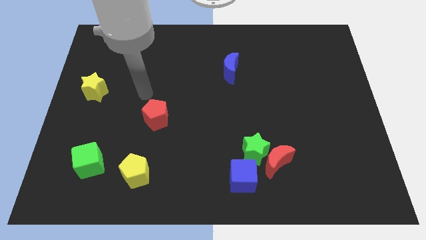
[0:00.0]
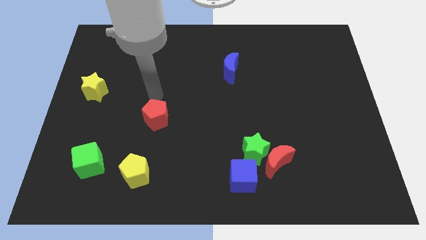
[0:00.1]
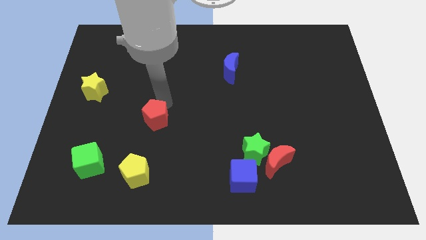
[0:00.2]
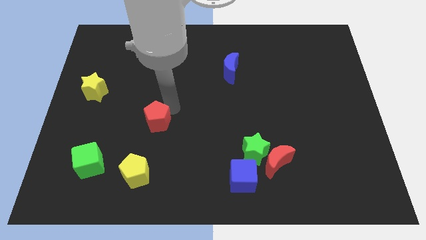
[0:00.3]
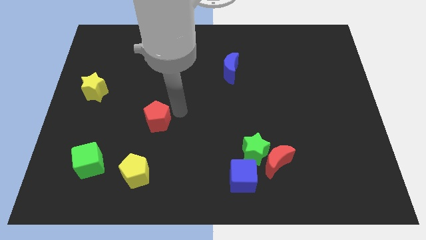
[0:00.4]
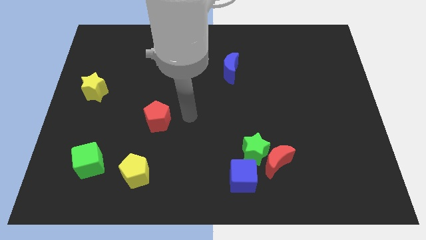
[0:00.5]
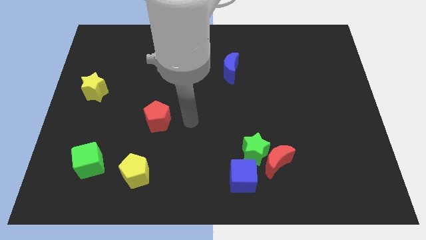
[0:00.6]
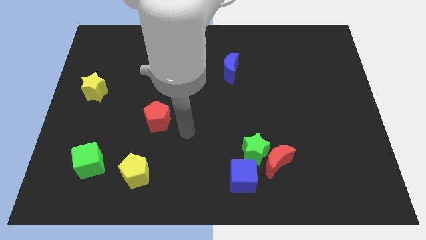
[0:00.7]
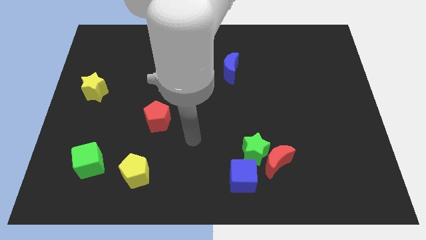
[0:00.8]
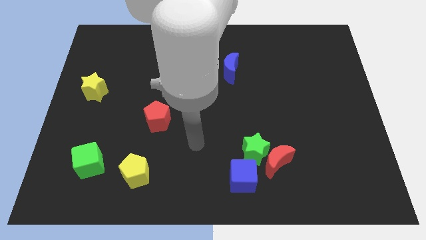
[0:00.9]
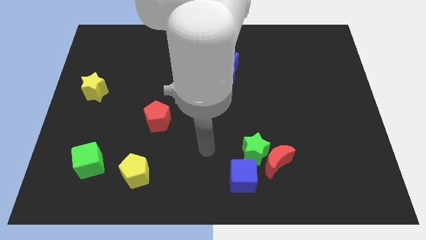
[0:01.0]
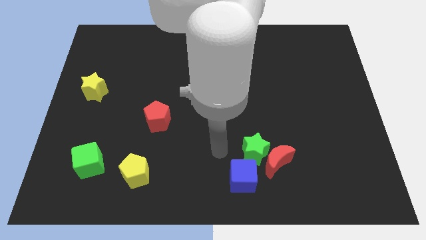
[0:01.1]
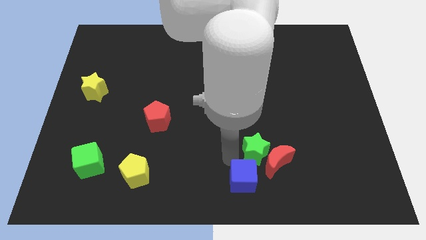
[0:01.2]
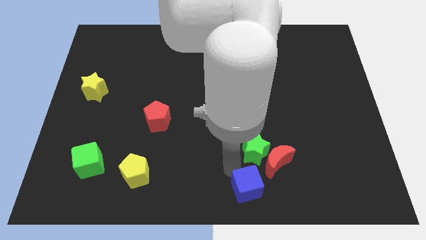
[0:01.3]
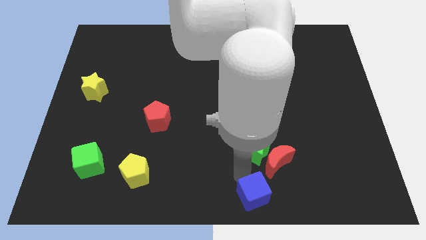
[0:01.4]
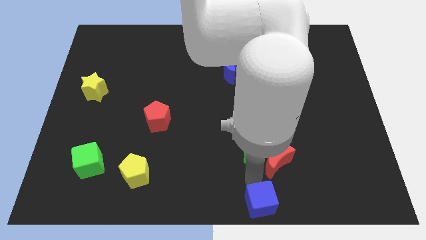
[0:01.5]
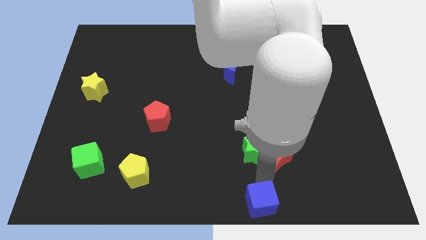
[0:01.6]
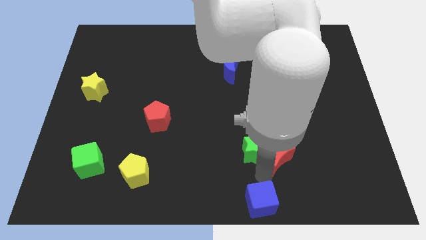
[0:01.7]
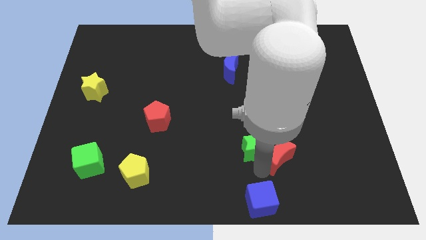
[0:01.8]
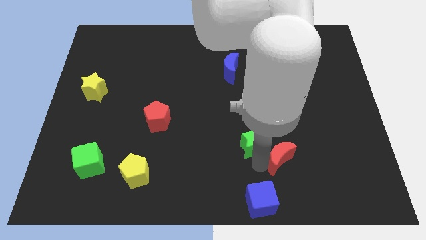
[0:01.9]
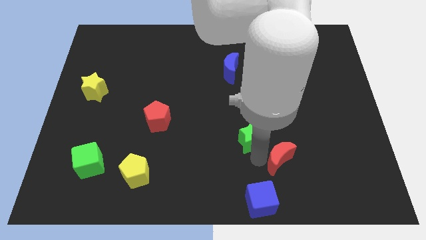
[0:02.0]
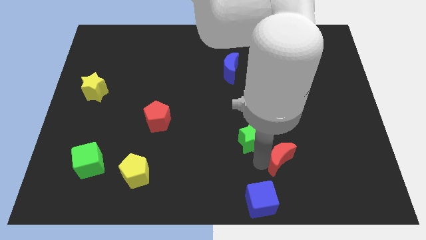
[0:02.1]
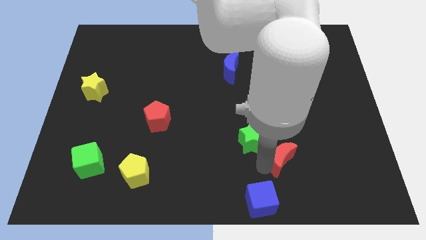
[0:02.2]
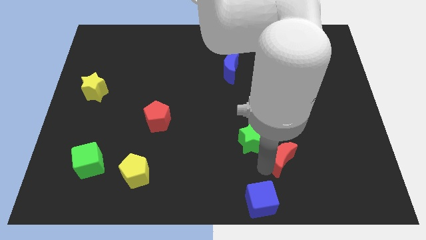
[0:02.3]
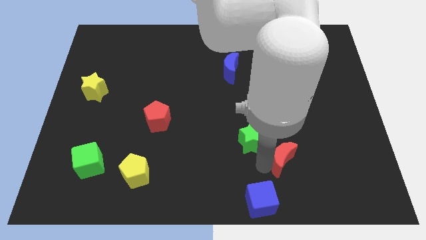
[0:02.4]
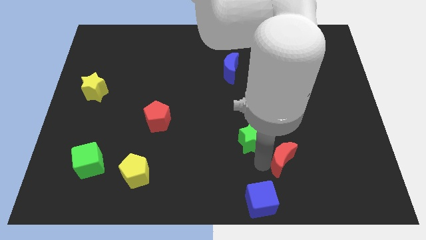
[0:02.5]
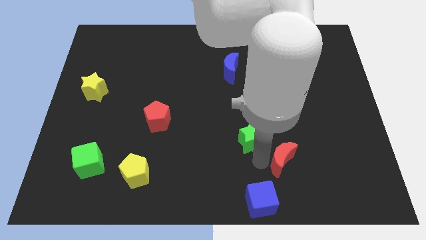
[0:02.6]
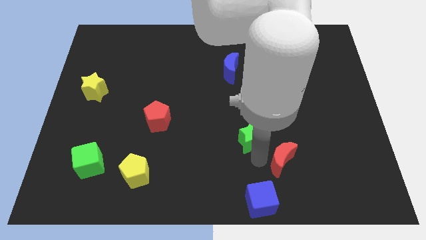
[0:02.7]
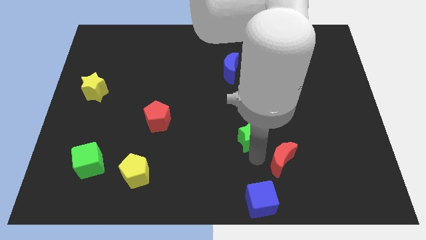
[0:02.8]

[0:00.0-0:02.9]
move the green star away from the red moon and blue cube

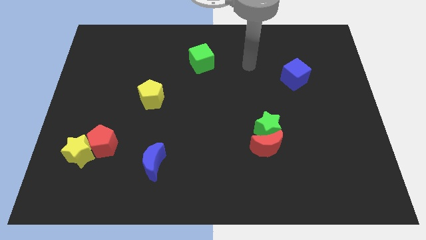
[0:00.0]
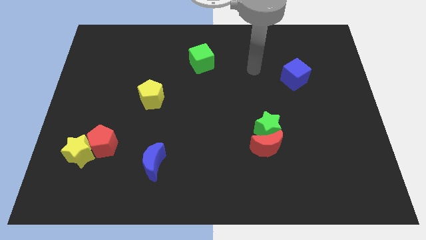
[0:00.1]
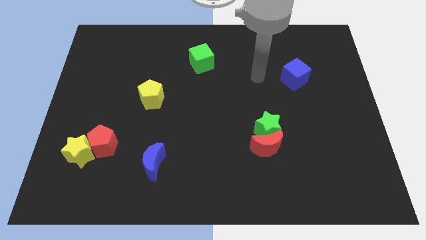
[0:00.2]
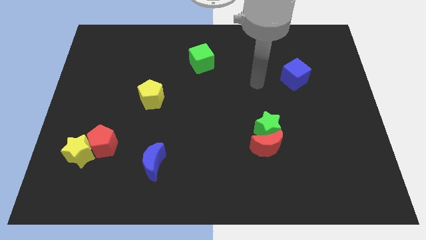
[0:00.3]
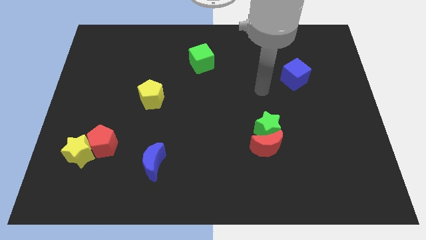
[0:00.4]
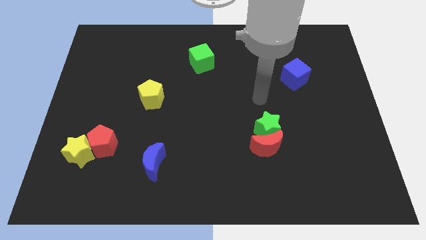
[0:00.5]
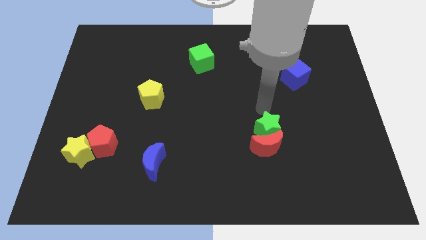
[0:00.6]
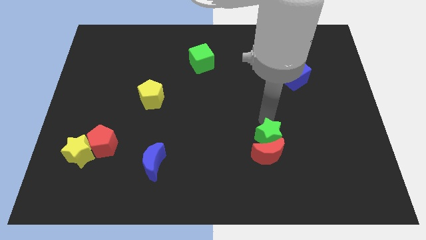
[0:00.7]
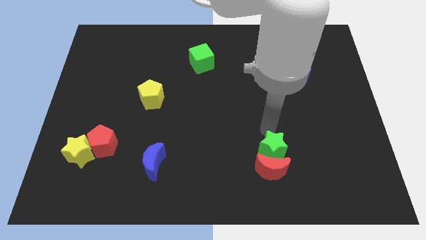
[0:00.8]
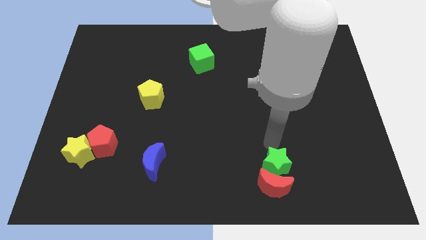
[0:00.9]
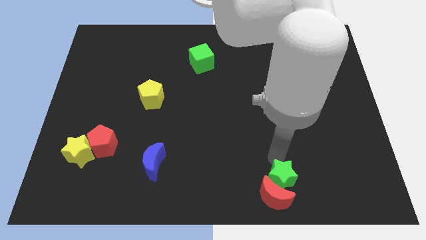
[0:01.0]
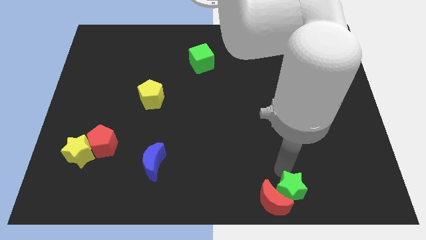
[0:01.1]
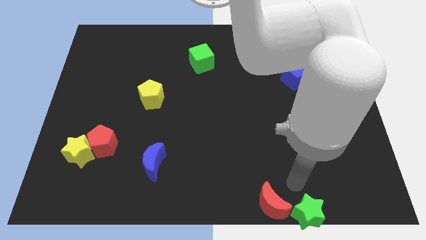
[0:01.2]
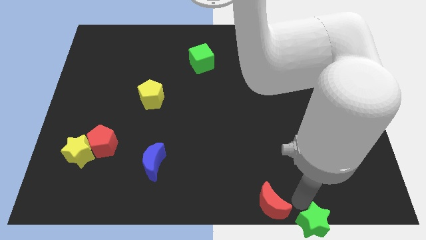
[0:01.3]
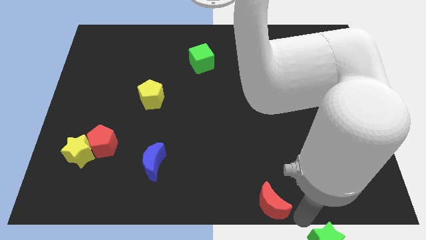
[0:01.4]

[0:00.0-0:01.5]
pull the red moon apart from the green star

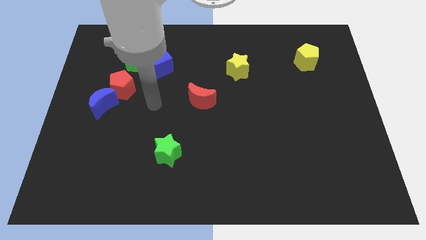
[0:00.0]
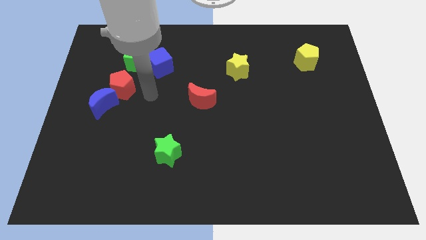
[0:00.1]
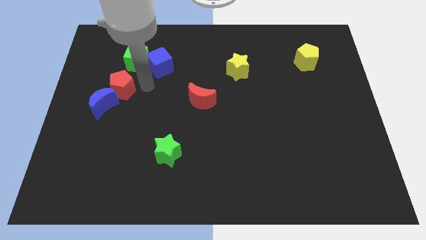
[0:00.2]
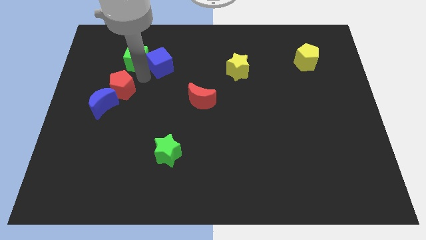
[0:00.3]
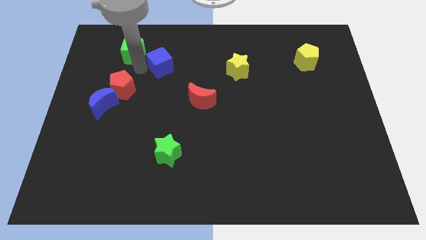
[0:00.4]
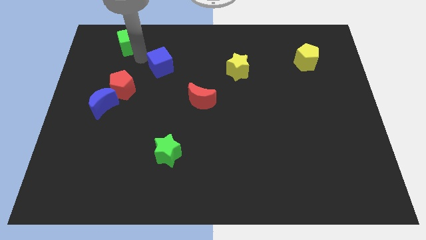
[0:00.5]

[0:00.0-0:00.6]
separate the blue cube from the green cube

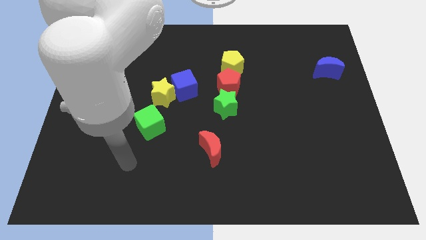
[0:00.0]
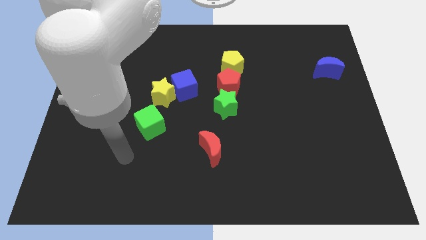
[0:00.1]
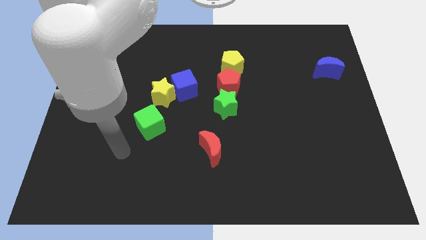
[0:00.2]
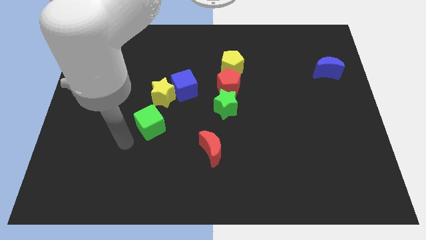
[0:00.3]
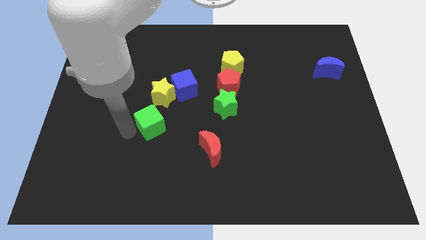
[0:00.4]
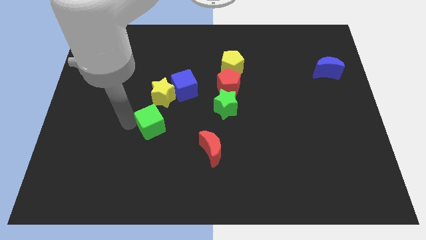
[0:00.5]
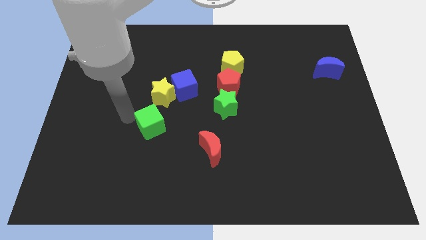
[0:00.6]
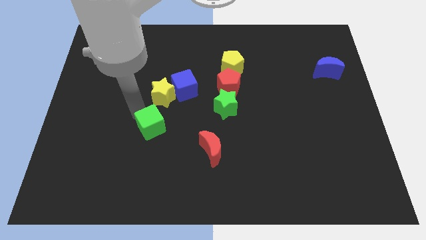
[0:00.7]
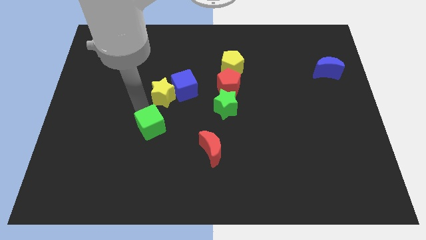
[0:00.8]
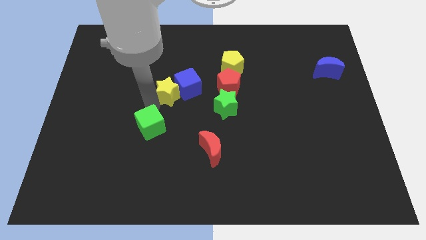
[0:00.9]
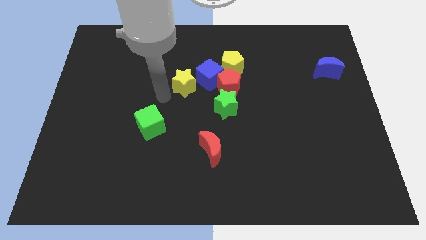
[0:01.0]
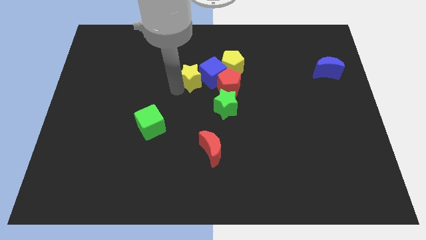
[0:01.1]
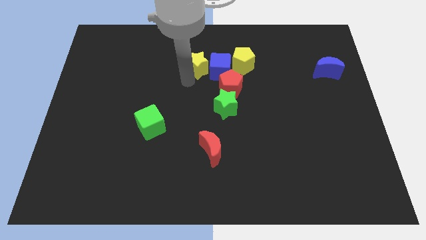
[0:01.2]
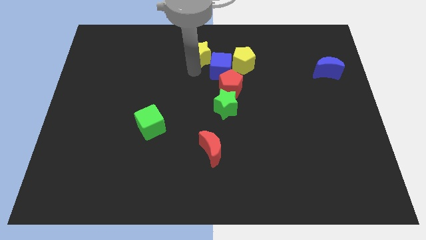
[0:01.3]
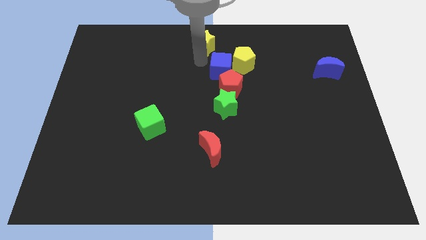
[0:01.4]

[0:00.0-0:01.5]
separate the blue cube from the yellow star

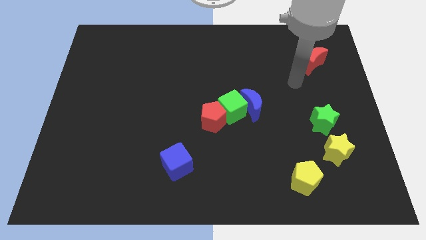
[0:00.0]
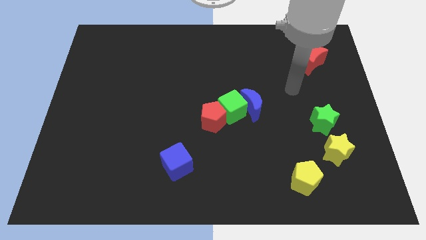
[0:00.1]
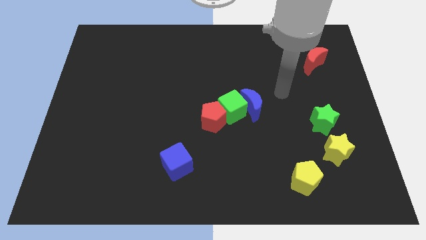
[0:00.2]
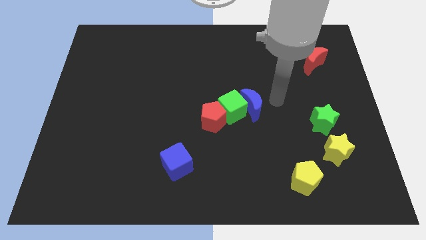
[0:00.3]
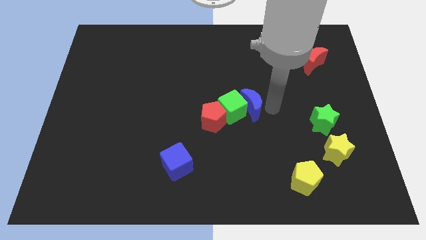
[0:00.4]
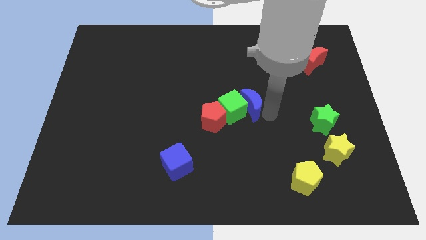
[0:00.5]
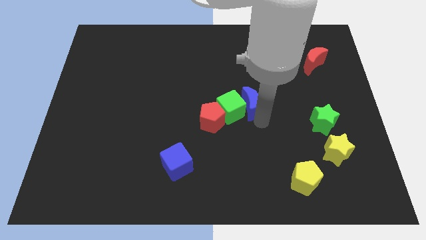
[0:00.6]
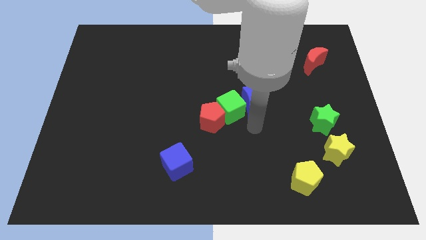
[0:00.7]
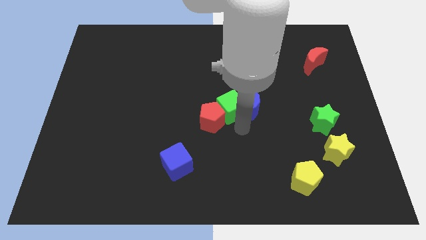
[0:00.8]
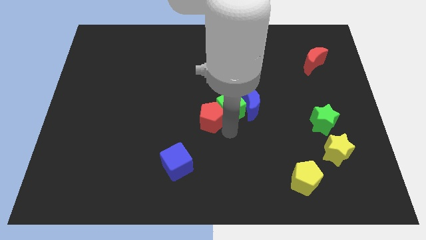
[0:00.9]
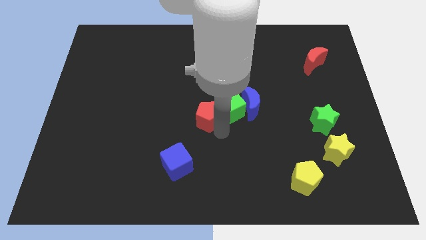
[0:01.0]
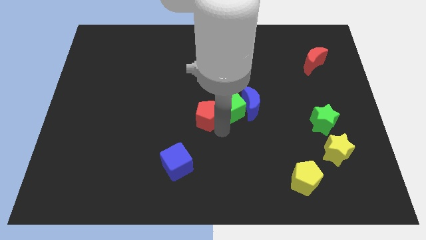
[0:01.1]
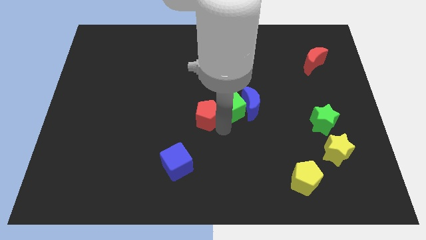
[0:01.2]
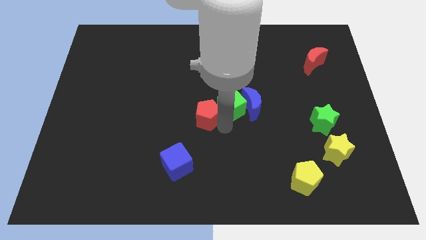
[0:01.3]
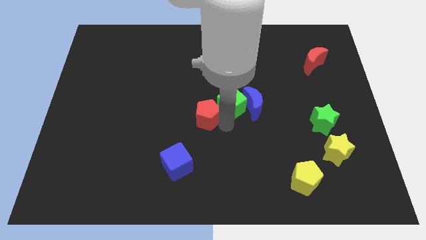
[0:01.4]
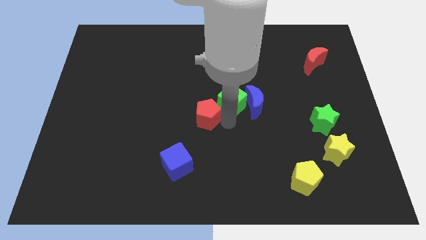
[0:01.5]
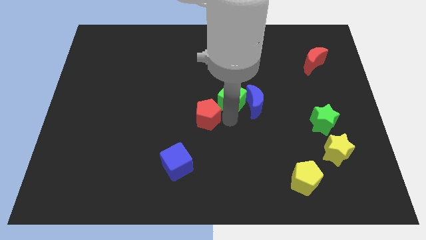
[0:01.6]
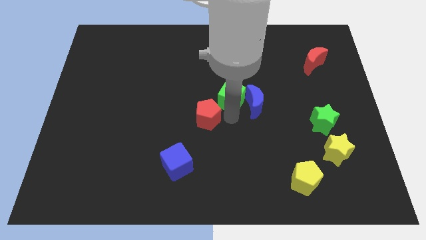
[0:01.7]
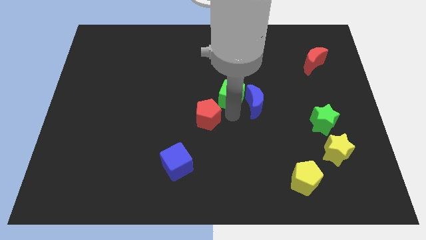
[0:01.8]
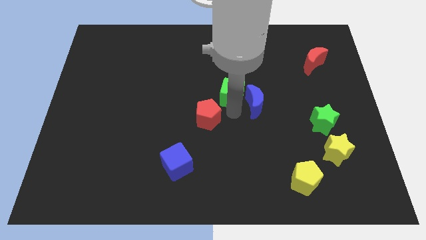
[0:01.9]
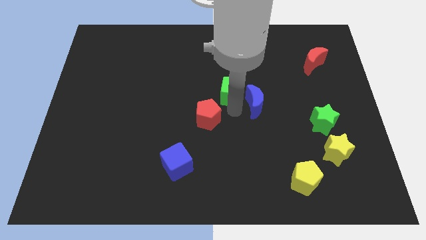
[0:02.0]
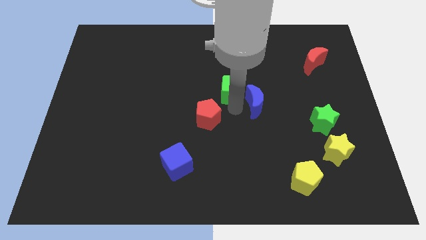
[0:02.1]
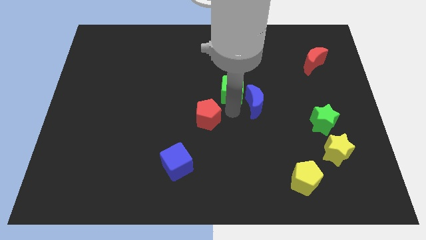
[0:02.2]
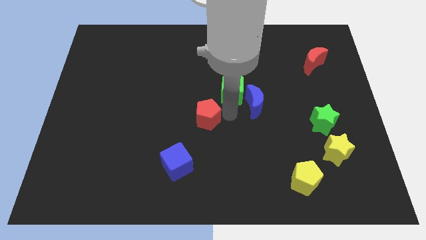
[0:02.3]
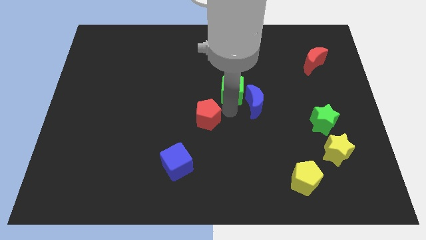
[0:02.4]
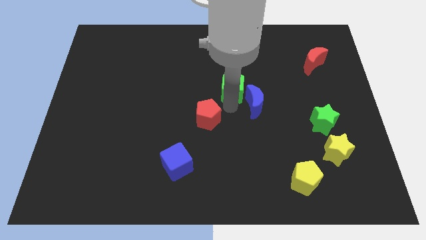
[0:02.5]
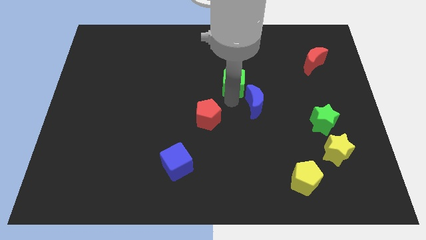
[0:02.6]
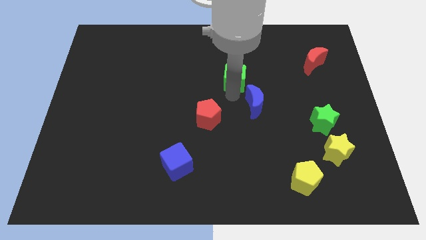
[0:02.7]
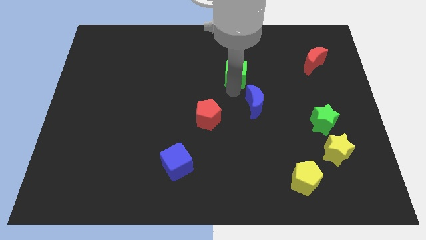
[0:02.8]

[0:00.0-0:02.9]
move the green cube away from the blue moon and red pentagon
